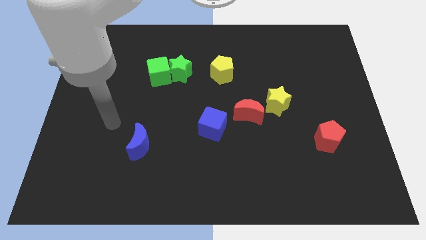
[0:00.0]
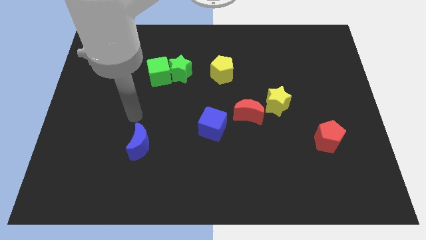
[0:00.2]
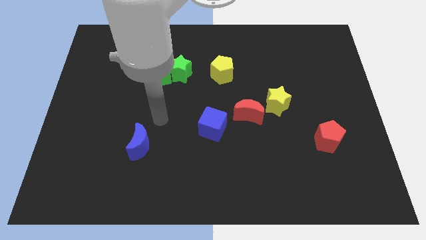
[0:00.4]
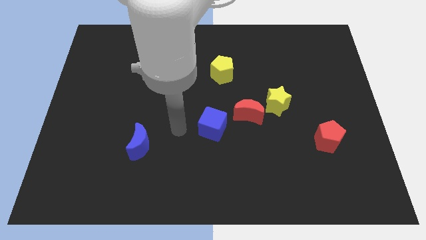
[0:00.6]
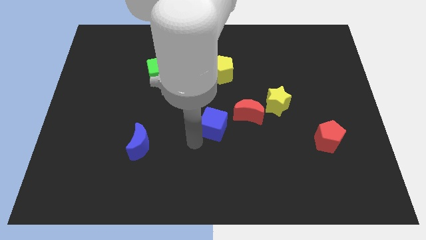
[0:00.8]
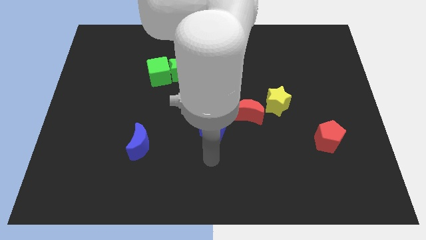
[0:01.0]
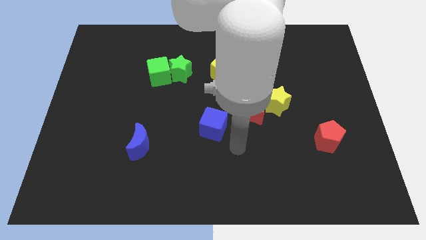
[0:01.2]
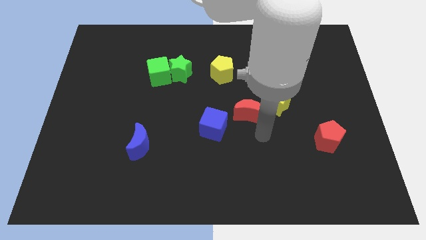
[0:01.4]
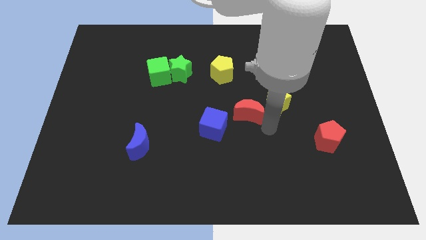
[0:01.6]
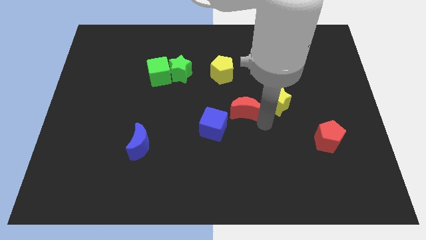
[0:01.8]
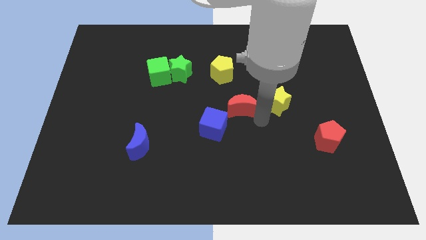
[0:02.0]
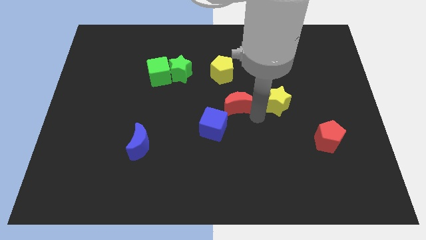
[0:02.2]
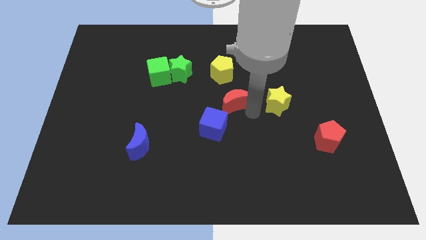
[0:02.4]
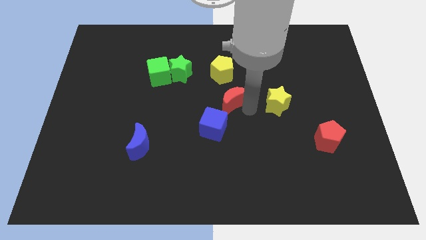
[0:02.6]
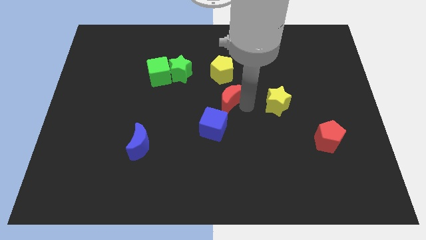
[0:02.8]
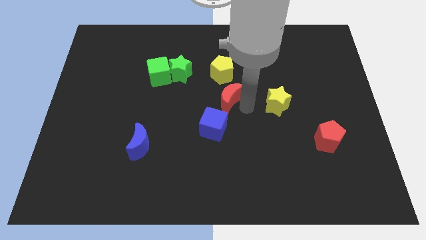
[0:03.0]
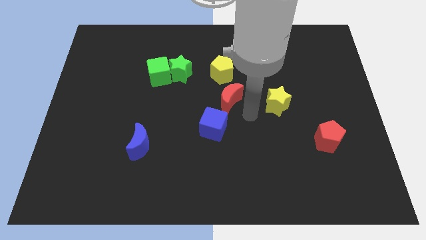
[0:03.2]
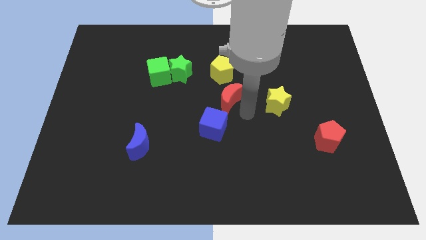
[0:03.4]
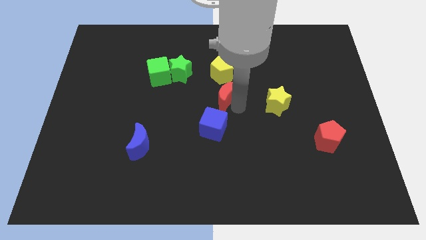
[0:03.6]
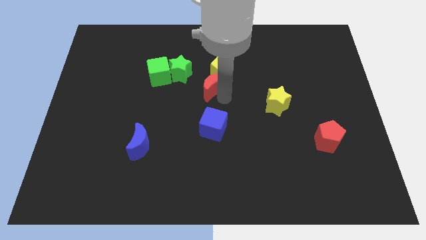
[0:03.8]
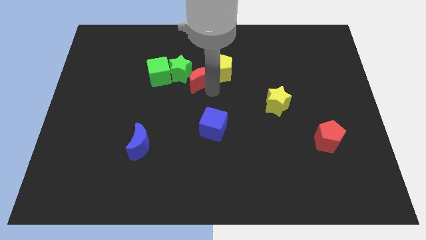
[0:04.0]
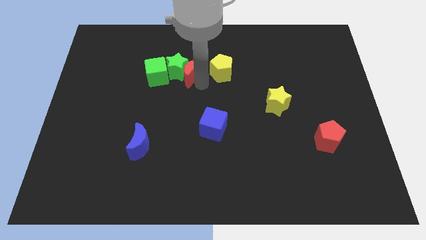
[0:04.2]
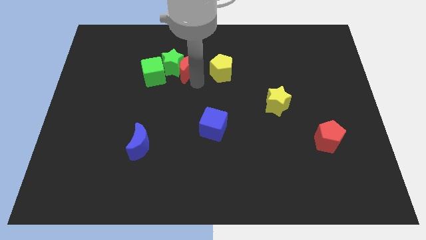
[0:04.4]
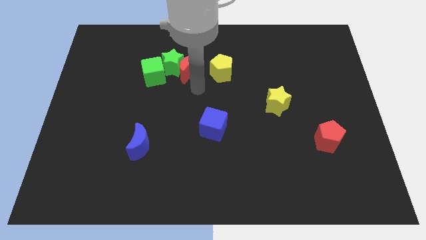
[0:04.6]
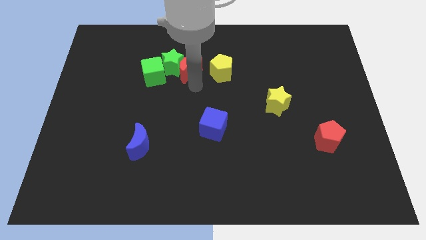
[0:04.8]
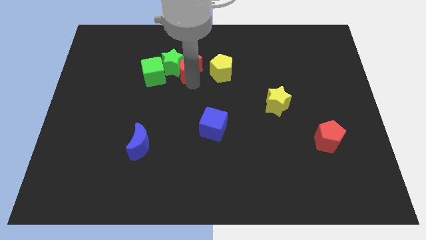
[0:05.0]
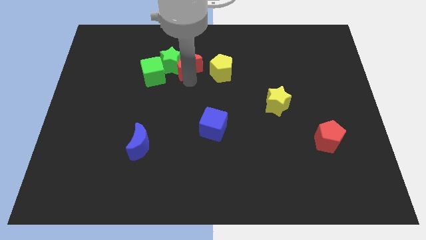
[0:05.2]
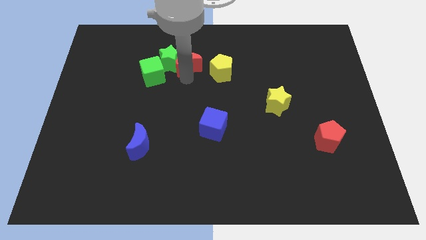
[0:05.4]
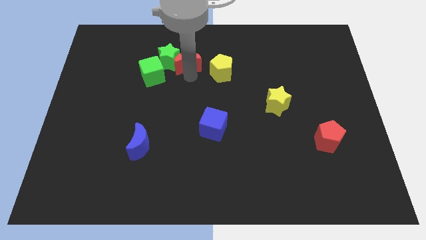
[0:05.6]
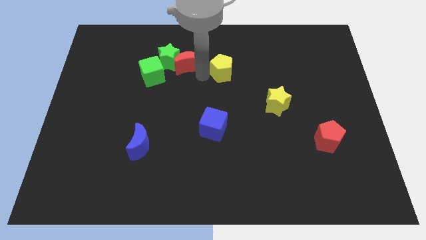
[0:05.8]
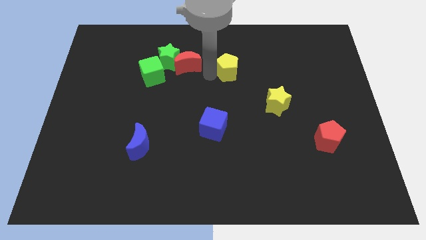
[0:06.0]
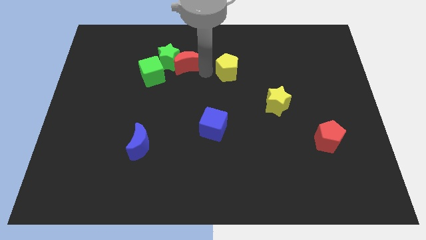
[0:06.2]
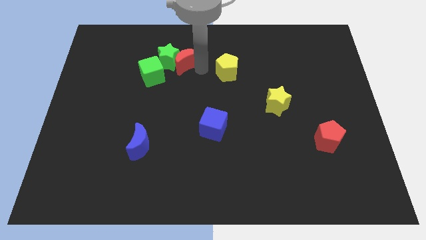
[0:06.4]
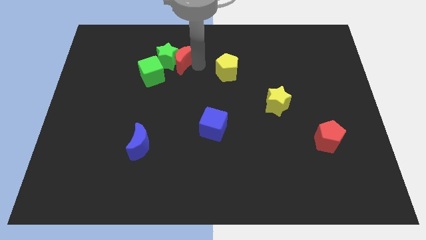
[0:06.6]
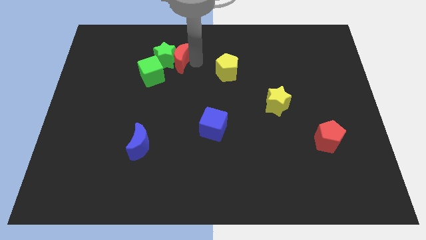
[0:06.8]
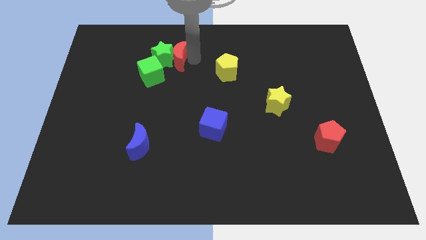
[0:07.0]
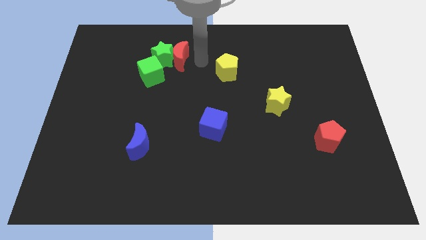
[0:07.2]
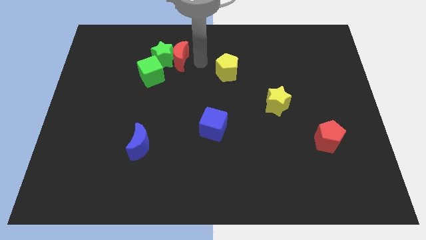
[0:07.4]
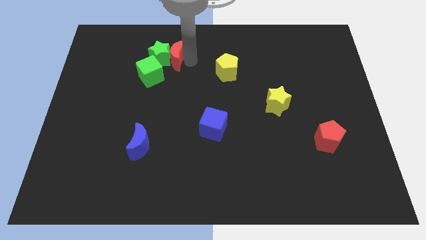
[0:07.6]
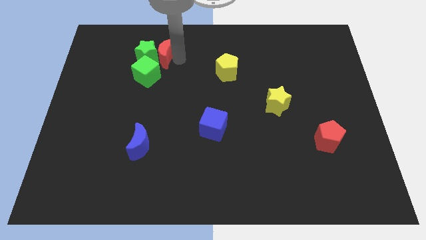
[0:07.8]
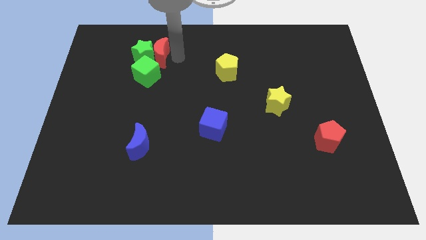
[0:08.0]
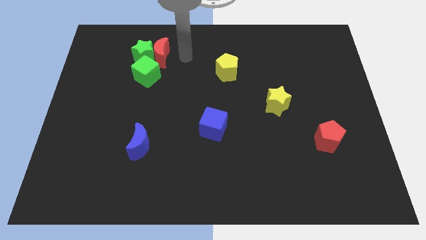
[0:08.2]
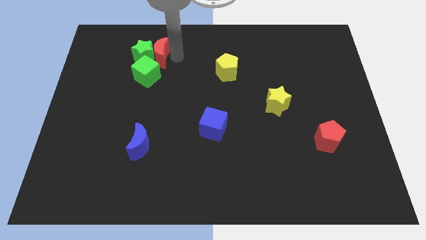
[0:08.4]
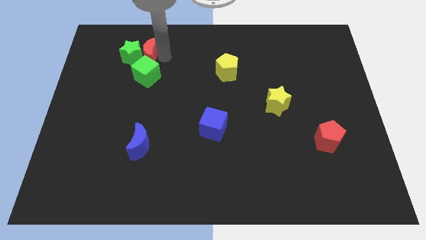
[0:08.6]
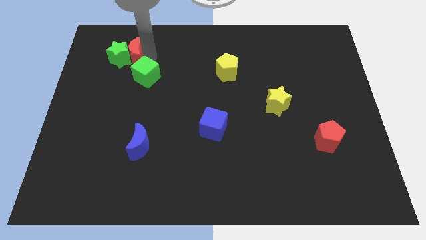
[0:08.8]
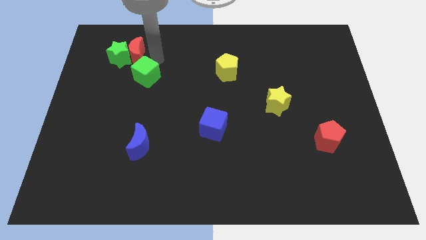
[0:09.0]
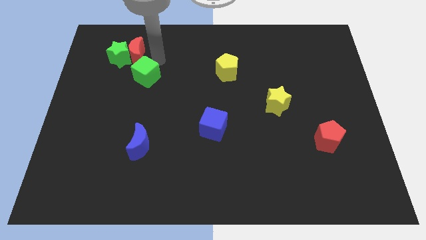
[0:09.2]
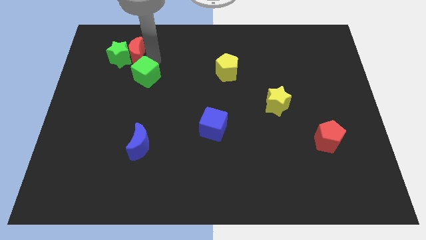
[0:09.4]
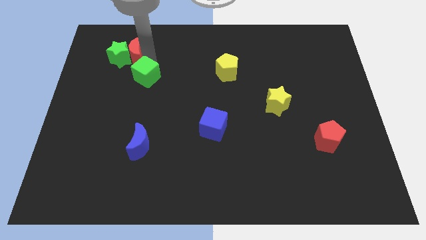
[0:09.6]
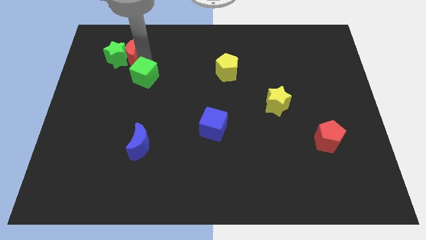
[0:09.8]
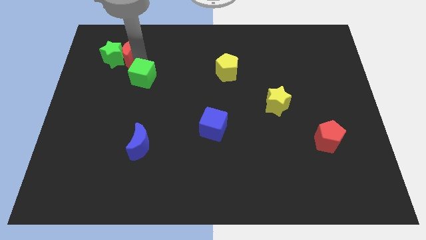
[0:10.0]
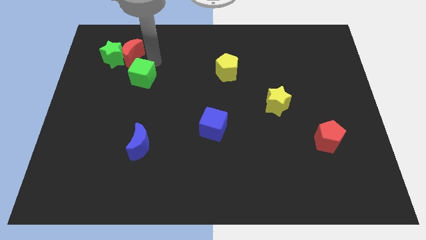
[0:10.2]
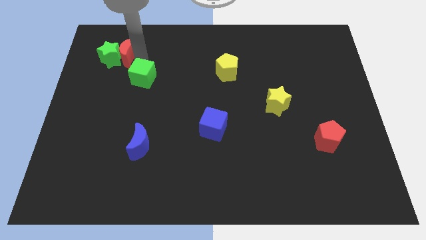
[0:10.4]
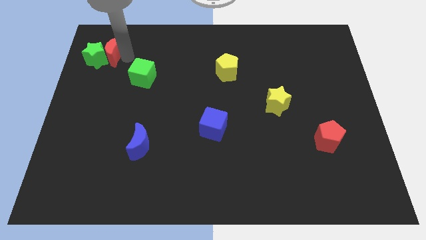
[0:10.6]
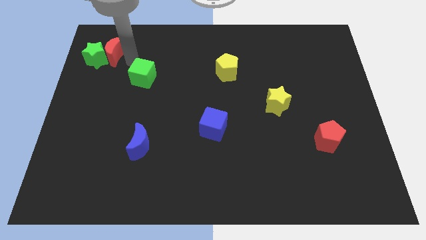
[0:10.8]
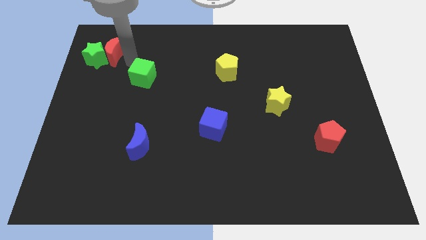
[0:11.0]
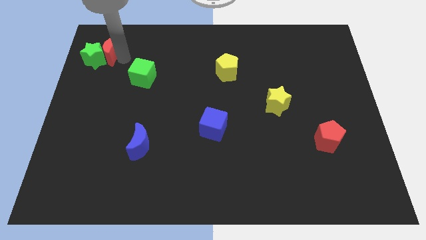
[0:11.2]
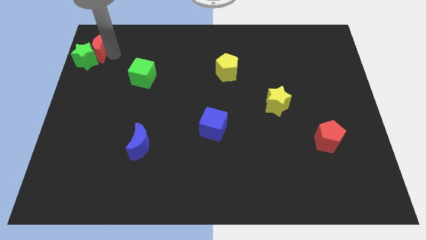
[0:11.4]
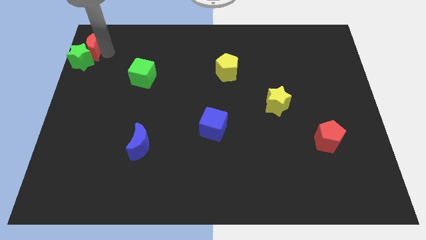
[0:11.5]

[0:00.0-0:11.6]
slide the red moon to the upper left corner
